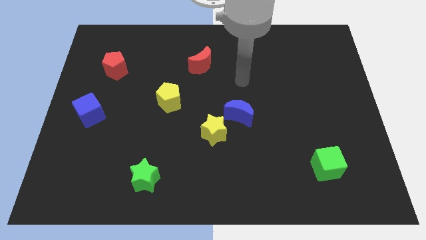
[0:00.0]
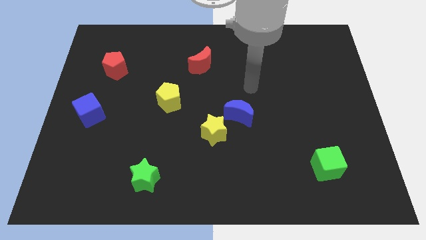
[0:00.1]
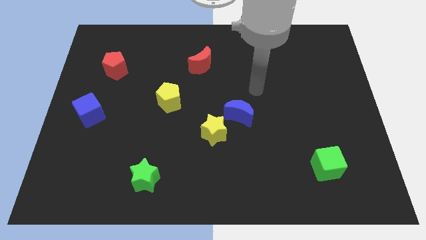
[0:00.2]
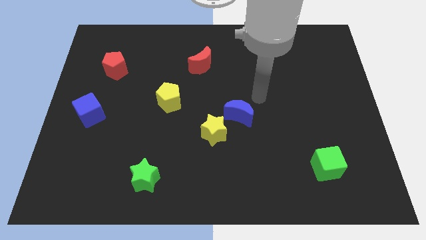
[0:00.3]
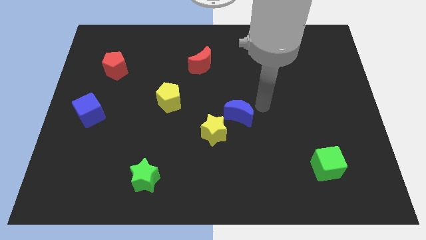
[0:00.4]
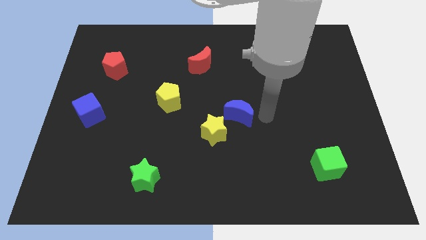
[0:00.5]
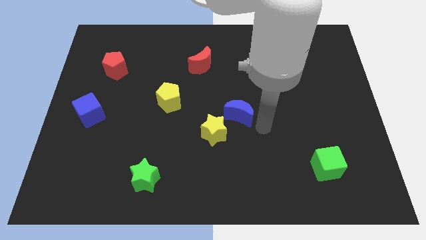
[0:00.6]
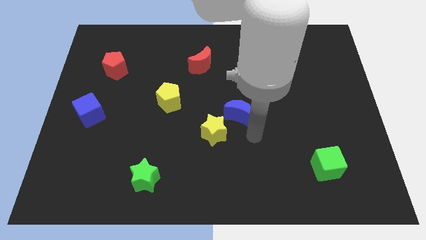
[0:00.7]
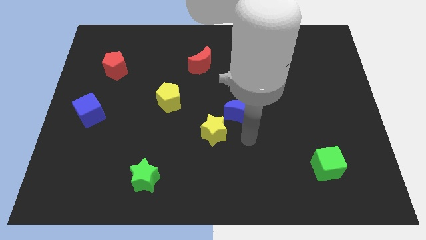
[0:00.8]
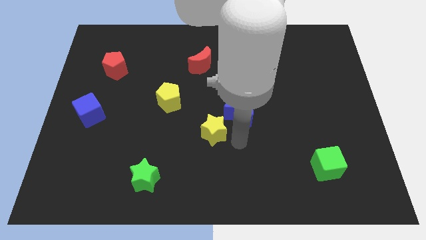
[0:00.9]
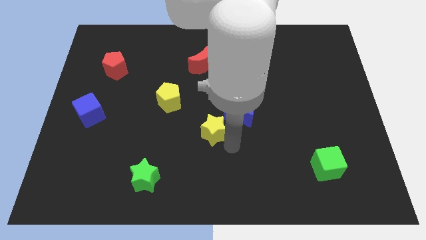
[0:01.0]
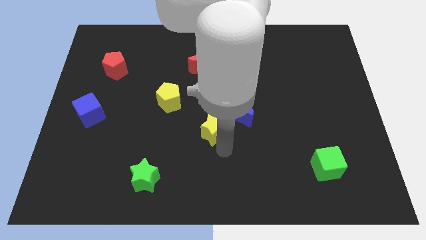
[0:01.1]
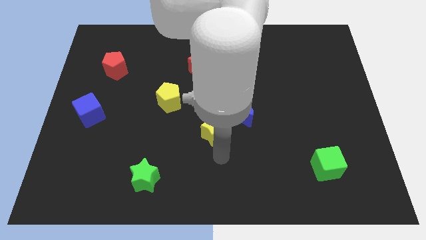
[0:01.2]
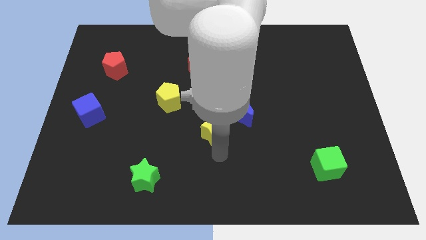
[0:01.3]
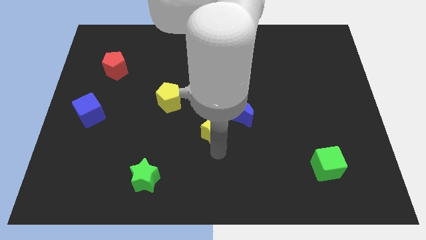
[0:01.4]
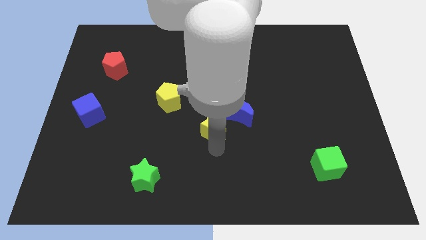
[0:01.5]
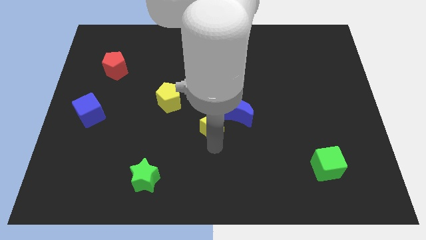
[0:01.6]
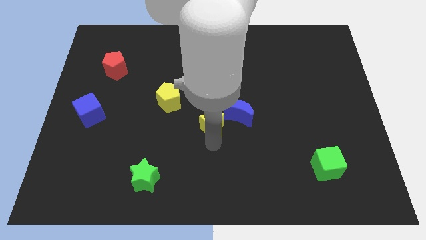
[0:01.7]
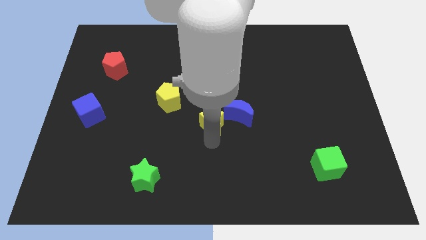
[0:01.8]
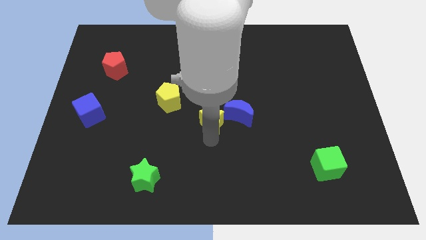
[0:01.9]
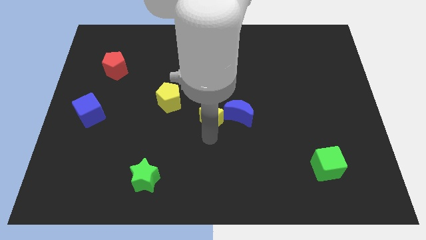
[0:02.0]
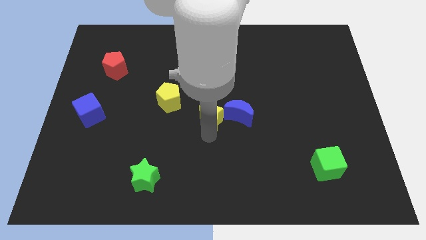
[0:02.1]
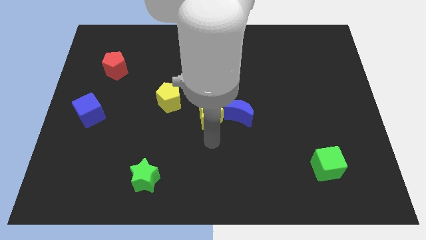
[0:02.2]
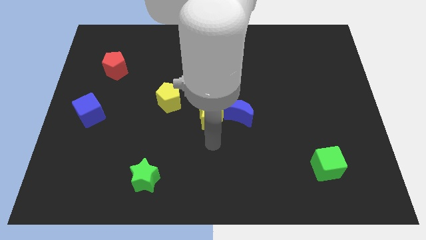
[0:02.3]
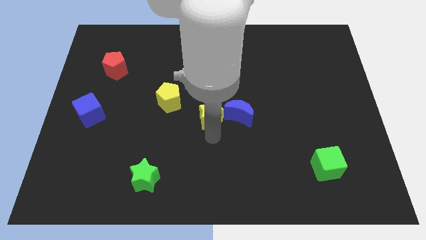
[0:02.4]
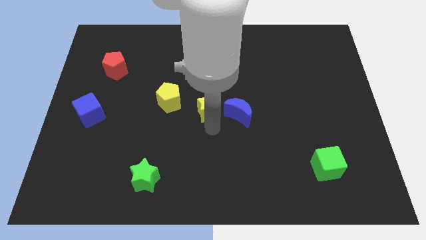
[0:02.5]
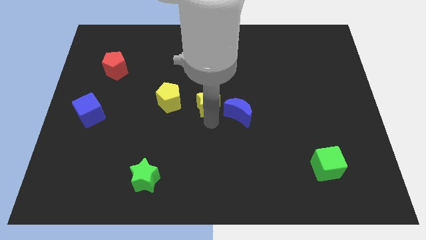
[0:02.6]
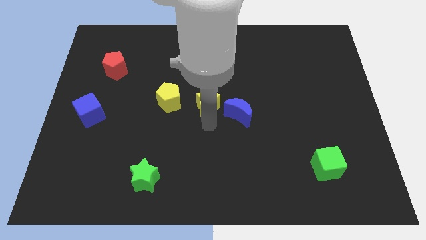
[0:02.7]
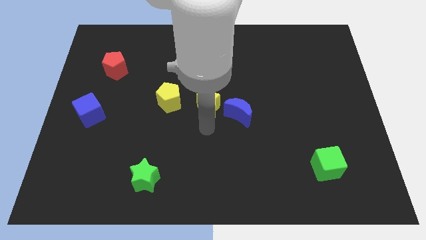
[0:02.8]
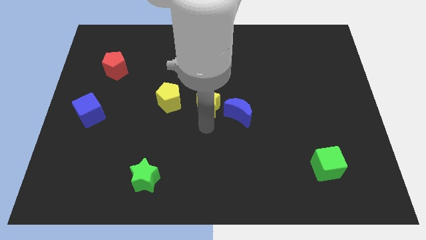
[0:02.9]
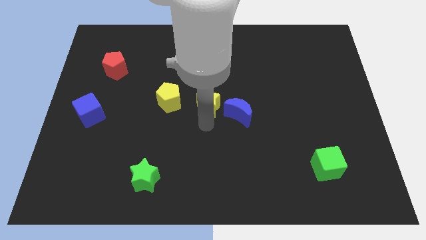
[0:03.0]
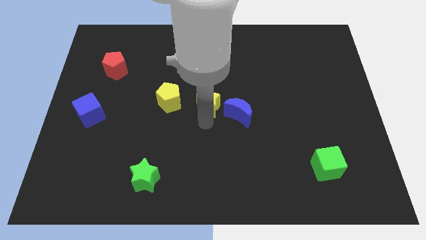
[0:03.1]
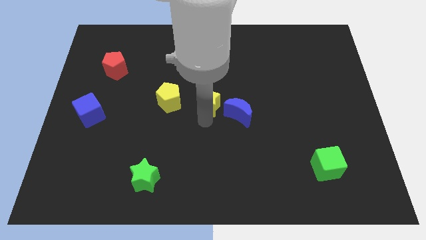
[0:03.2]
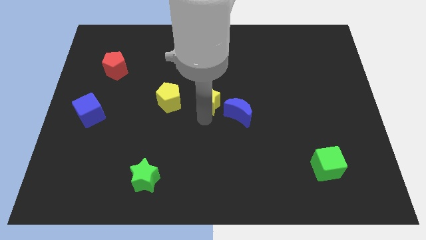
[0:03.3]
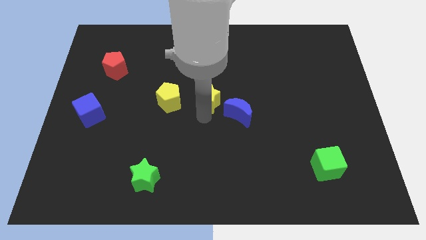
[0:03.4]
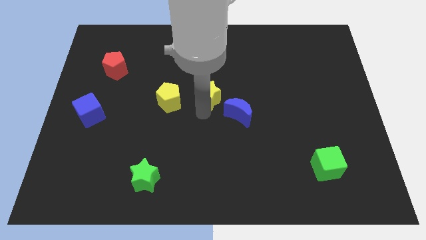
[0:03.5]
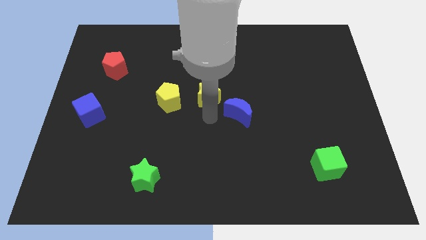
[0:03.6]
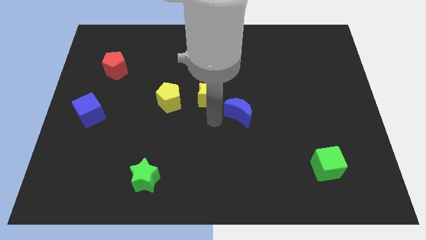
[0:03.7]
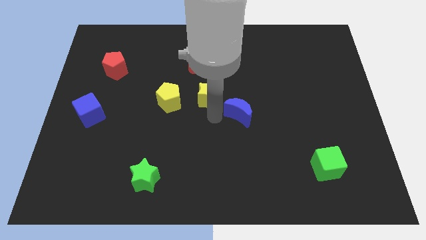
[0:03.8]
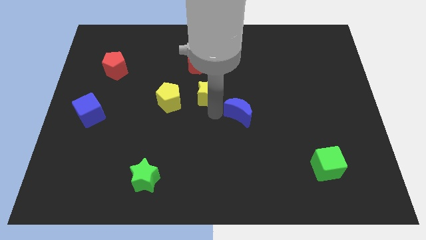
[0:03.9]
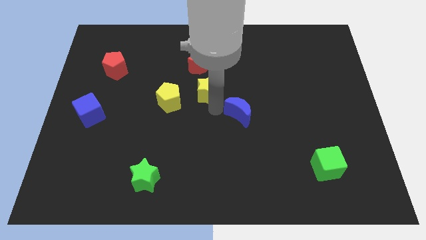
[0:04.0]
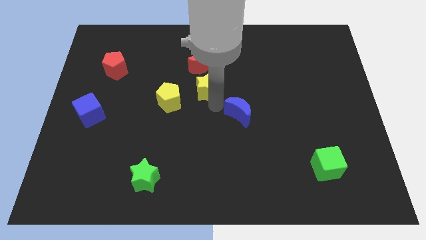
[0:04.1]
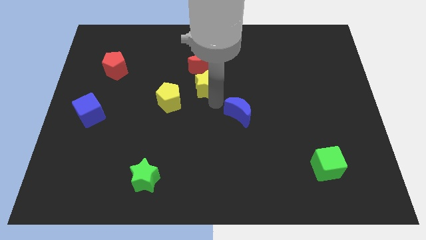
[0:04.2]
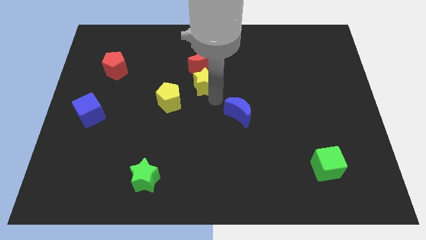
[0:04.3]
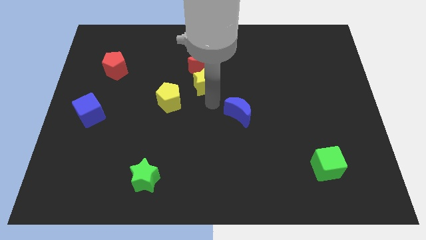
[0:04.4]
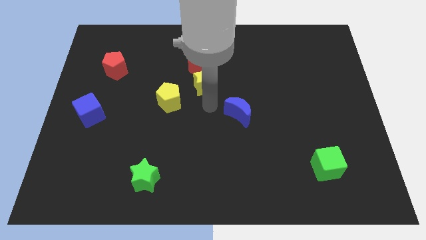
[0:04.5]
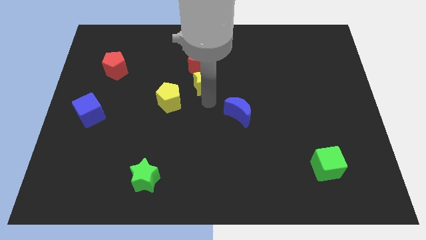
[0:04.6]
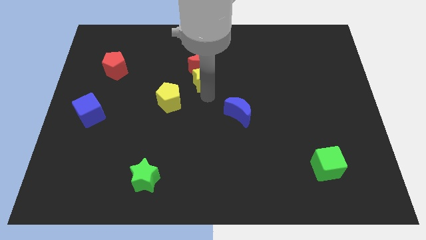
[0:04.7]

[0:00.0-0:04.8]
push the yellow star next to the red moon

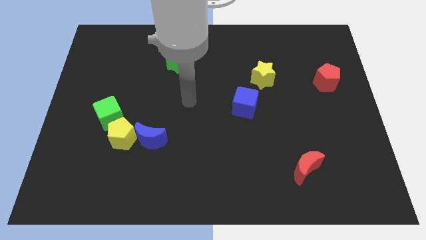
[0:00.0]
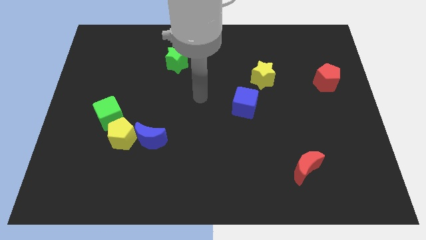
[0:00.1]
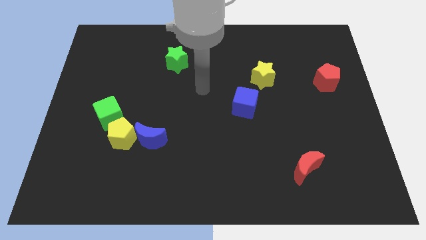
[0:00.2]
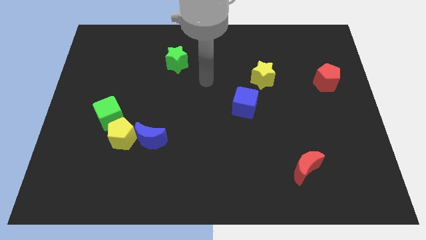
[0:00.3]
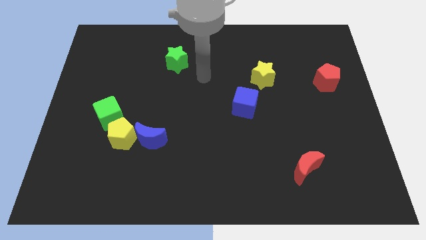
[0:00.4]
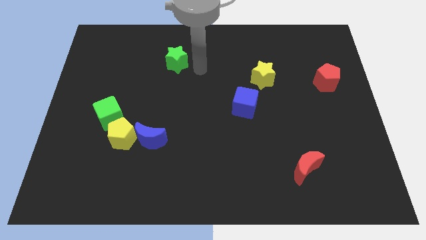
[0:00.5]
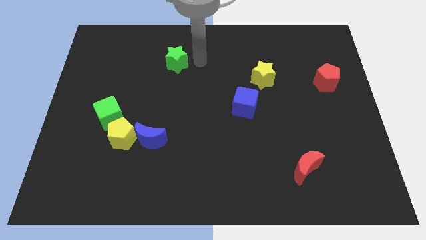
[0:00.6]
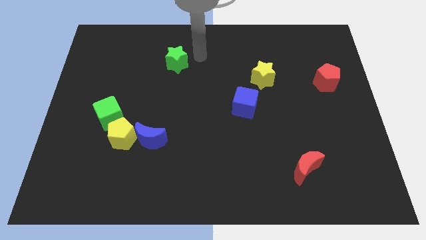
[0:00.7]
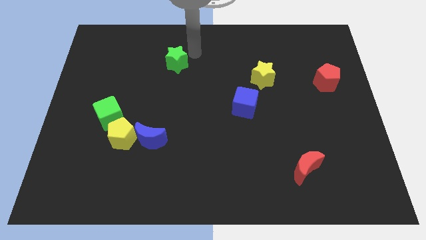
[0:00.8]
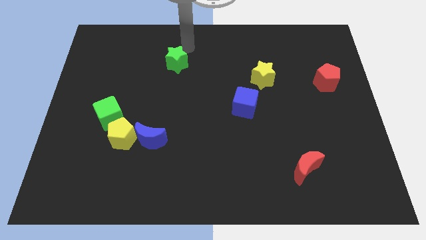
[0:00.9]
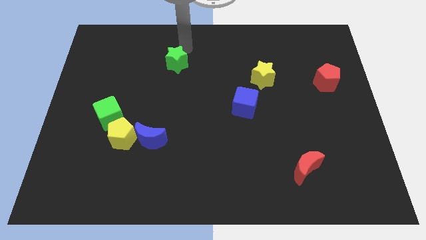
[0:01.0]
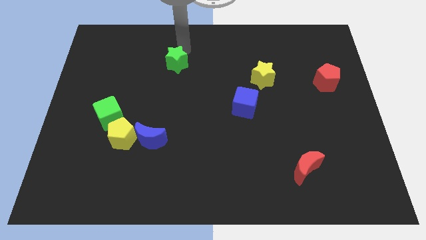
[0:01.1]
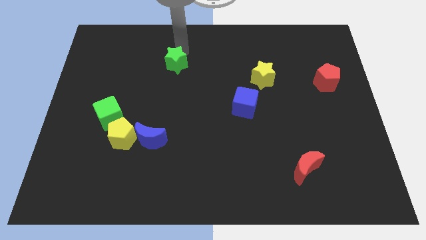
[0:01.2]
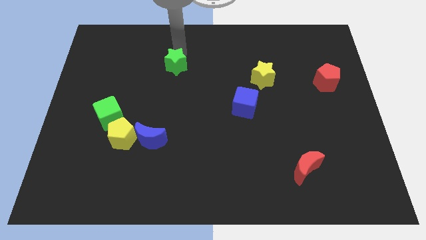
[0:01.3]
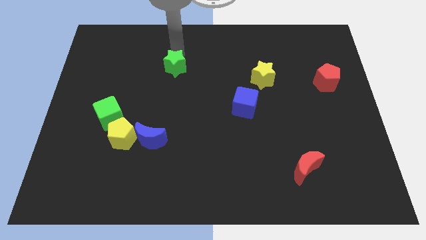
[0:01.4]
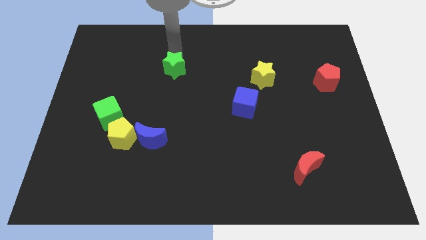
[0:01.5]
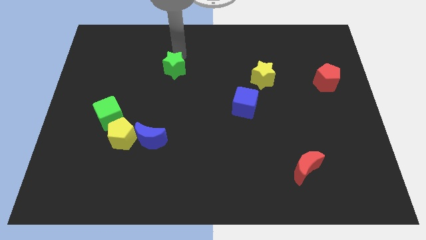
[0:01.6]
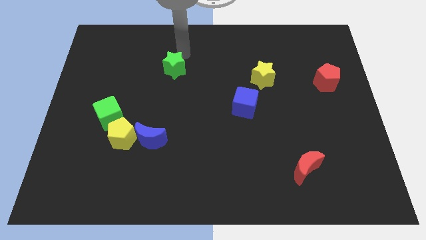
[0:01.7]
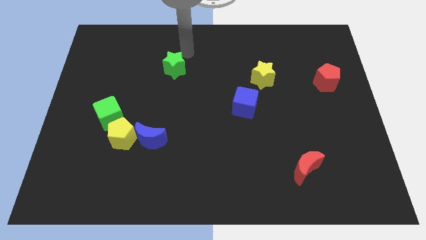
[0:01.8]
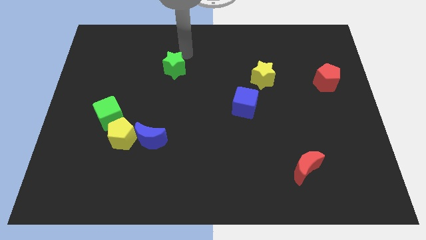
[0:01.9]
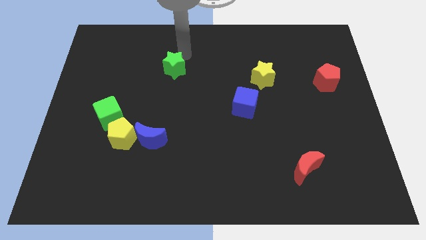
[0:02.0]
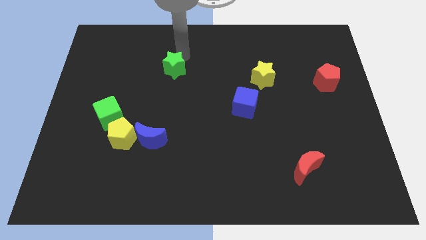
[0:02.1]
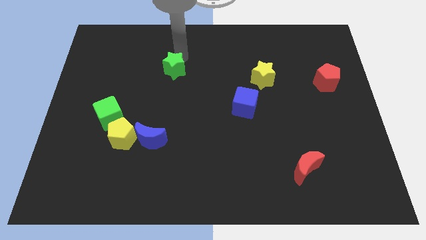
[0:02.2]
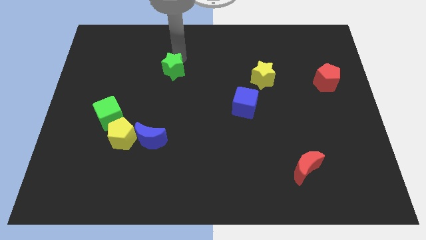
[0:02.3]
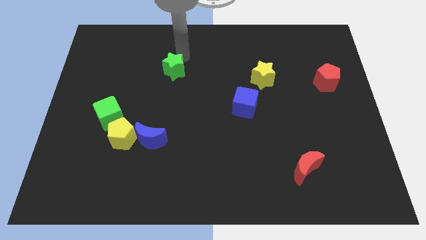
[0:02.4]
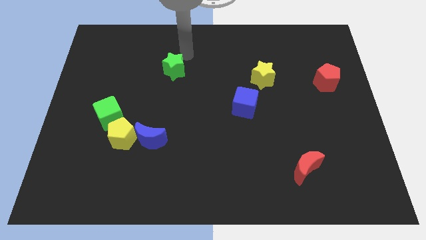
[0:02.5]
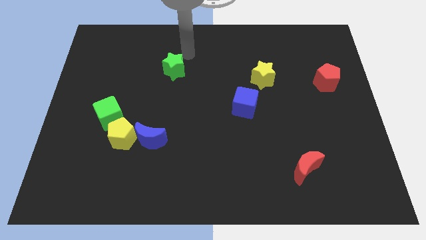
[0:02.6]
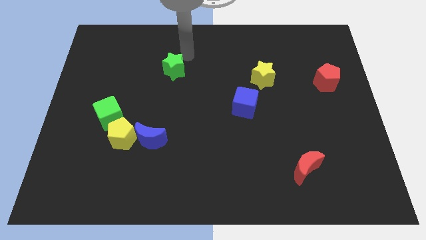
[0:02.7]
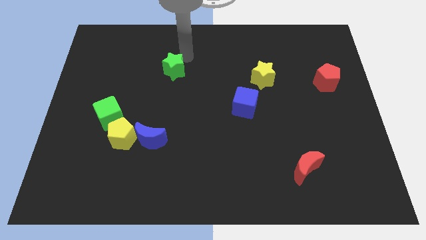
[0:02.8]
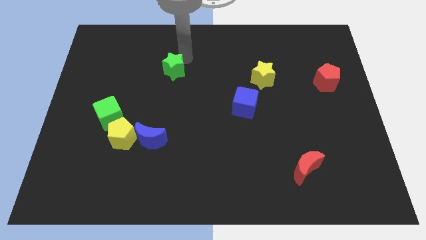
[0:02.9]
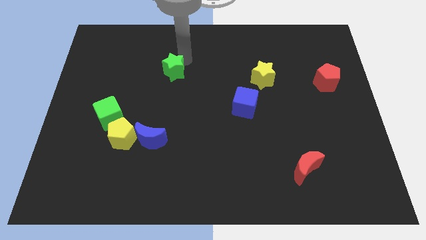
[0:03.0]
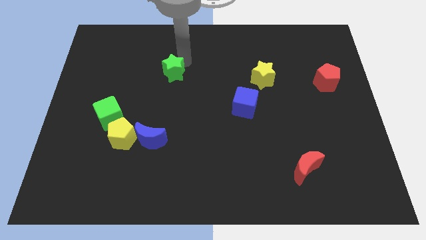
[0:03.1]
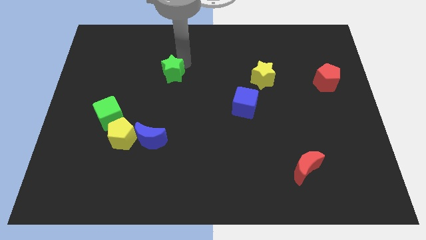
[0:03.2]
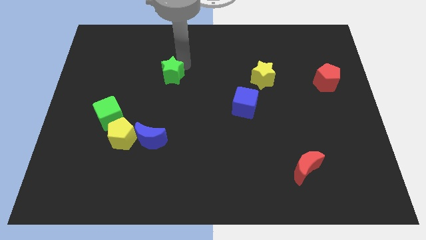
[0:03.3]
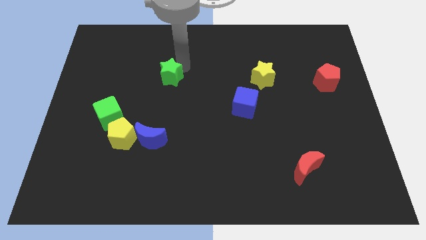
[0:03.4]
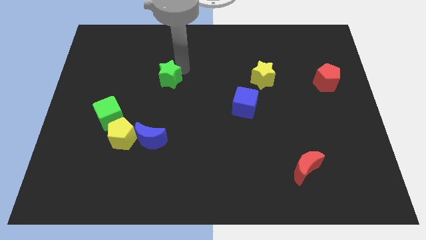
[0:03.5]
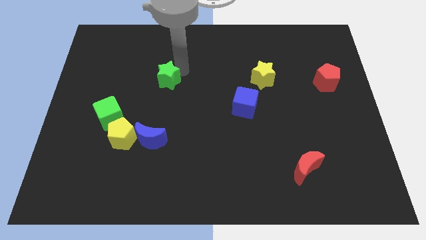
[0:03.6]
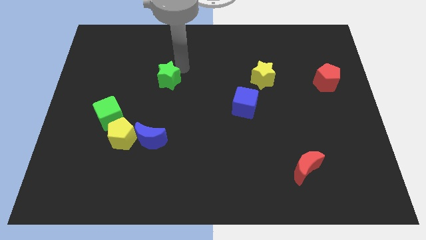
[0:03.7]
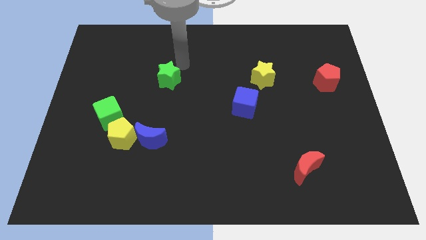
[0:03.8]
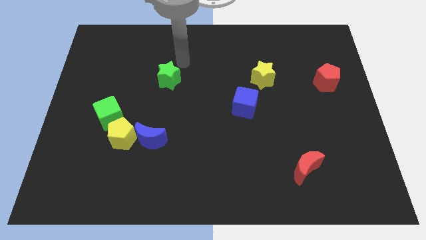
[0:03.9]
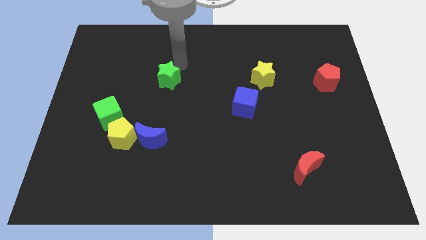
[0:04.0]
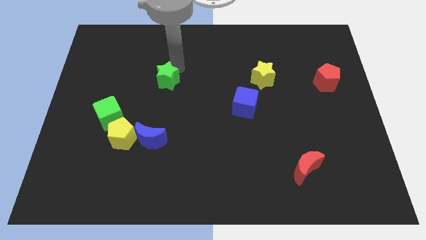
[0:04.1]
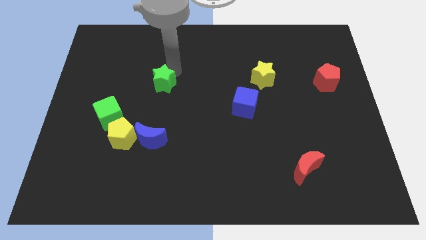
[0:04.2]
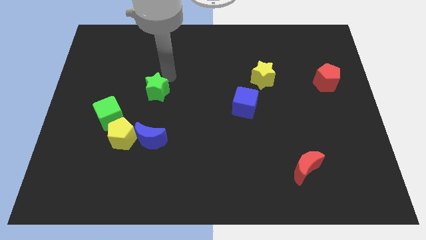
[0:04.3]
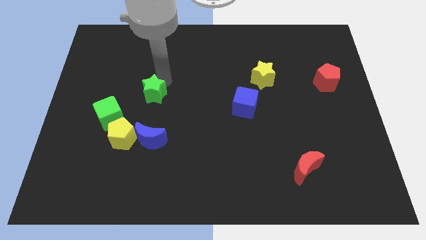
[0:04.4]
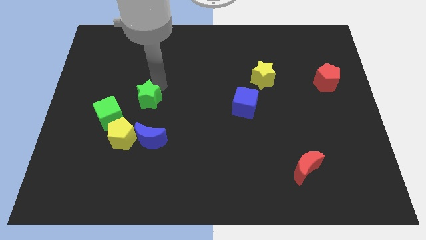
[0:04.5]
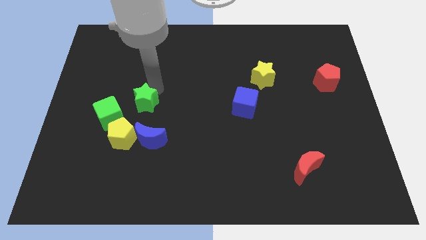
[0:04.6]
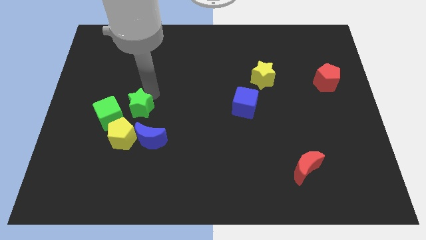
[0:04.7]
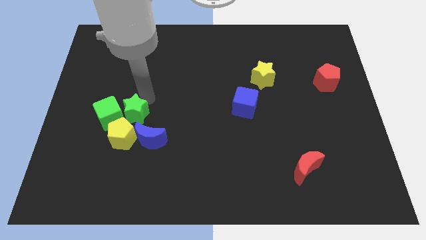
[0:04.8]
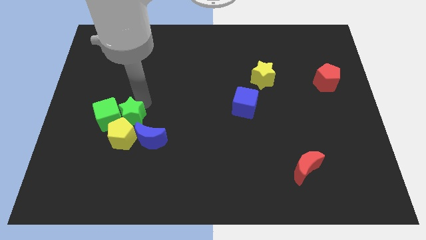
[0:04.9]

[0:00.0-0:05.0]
slide the green star towards the yellow pentagon
